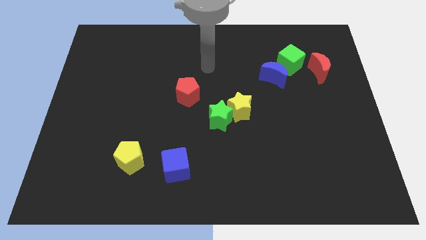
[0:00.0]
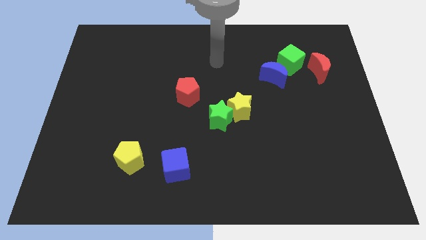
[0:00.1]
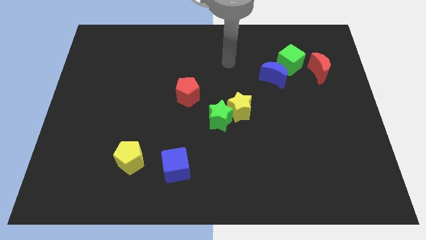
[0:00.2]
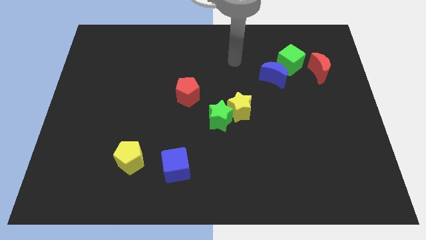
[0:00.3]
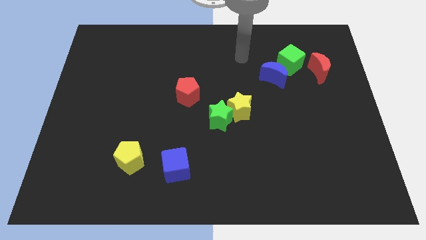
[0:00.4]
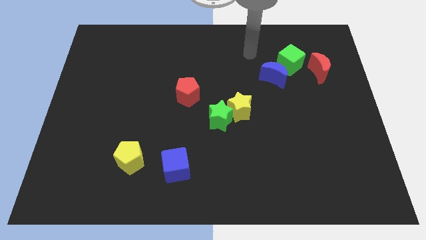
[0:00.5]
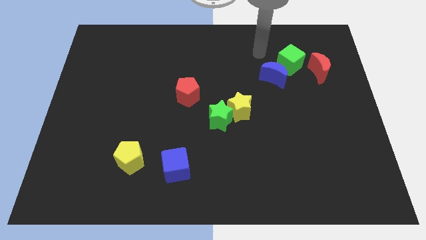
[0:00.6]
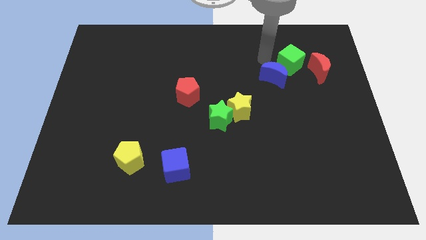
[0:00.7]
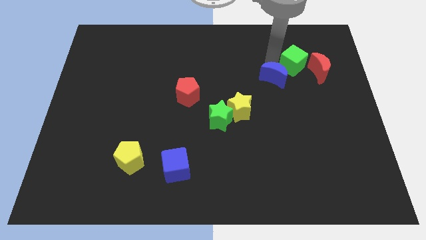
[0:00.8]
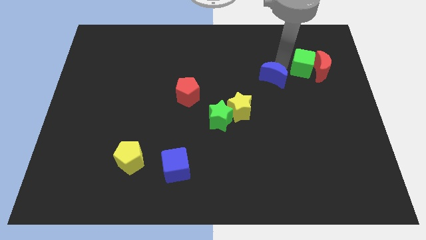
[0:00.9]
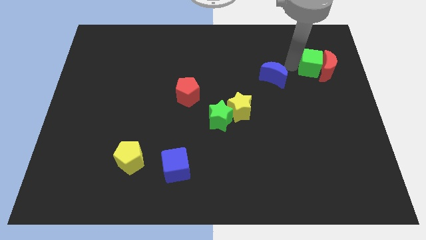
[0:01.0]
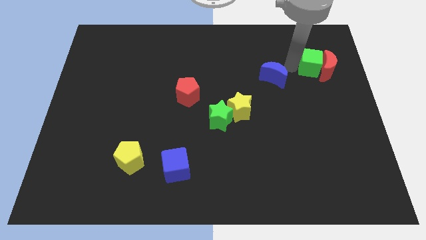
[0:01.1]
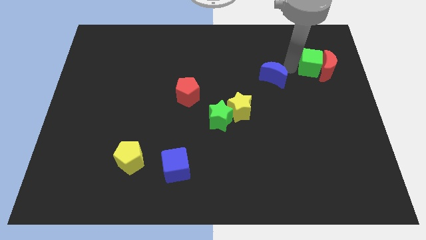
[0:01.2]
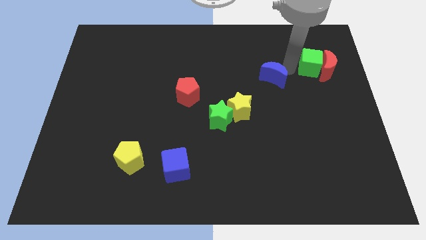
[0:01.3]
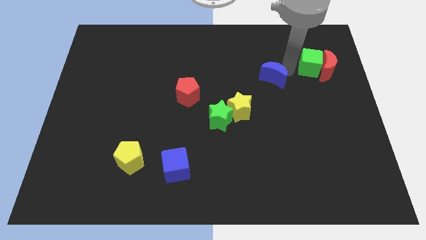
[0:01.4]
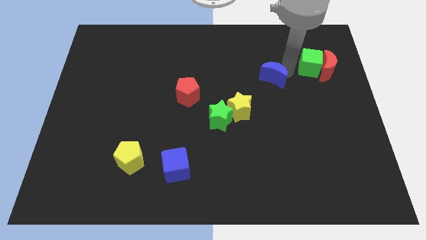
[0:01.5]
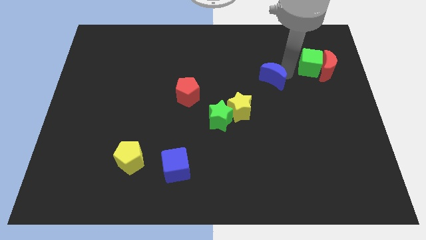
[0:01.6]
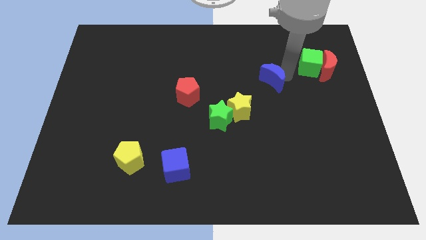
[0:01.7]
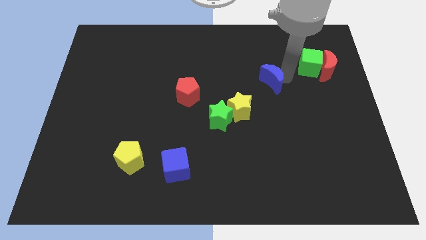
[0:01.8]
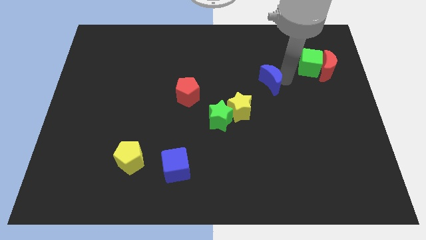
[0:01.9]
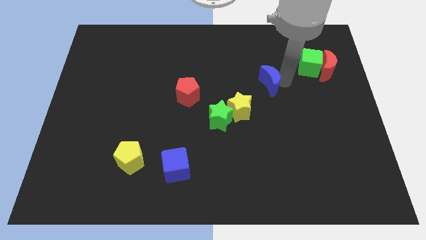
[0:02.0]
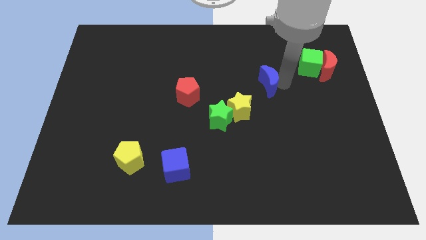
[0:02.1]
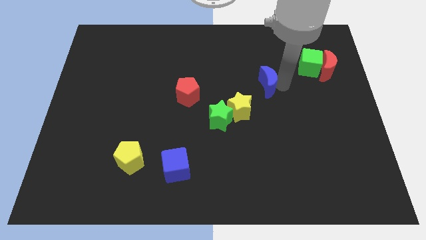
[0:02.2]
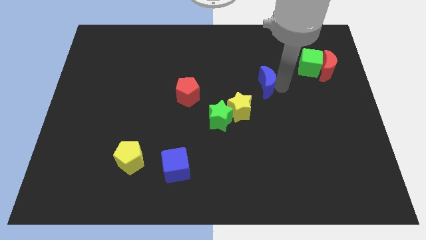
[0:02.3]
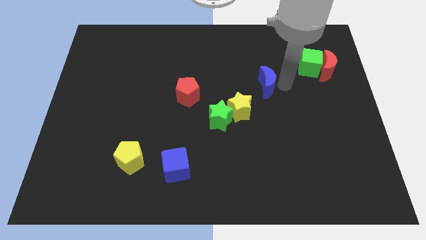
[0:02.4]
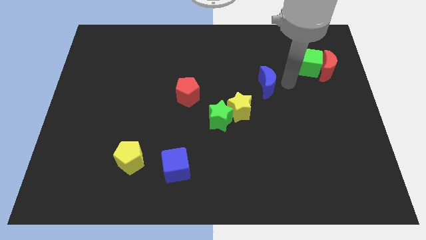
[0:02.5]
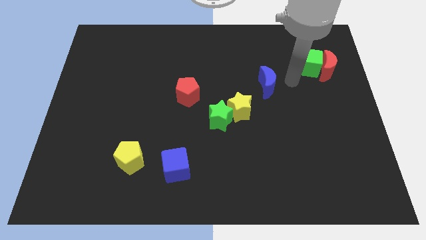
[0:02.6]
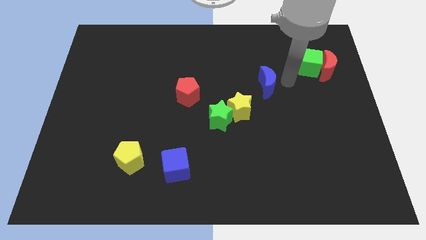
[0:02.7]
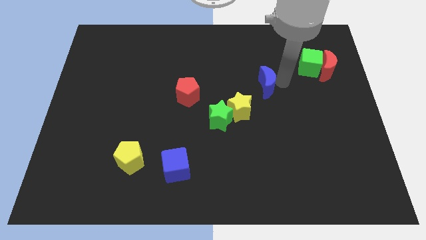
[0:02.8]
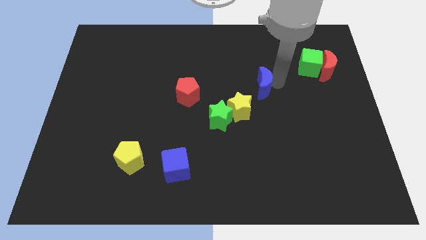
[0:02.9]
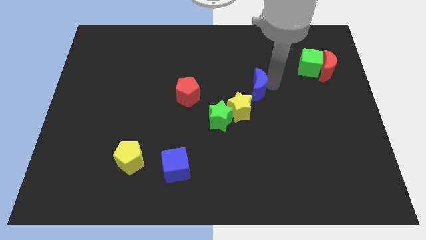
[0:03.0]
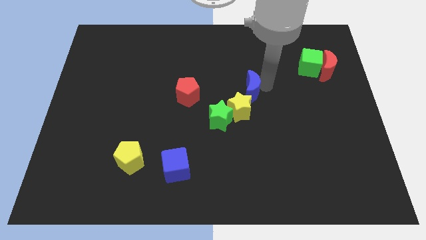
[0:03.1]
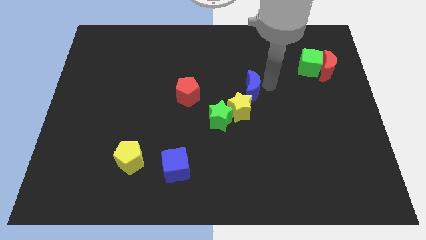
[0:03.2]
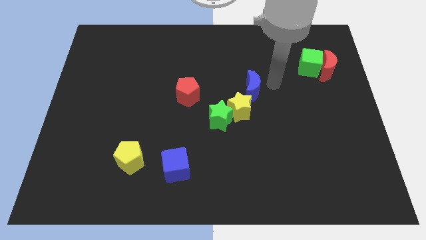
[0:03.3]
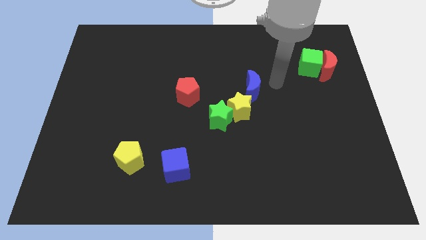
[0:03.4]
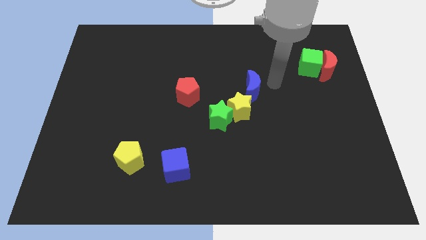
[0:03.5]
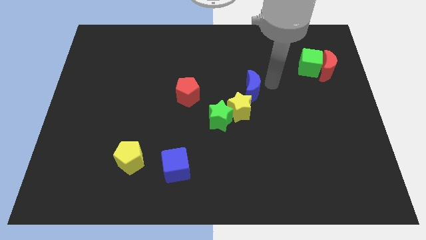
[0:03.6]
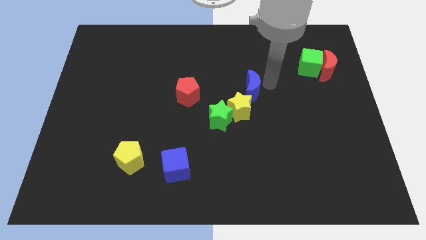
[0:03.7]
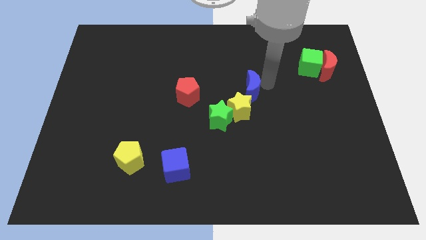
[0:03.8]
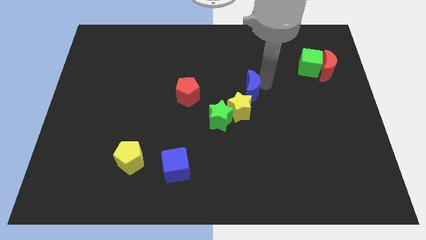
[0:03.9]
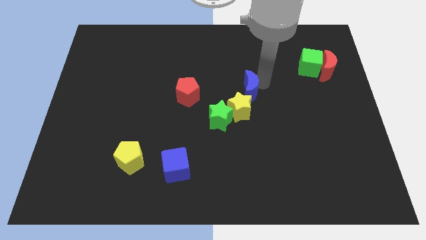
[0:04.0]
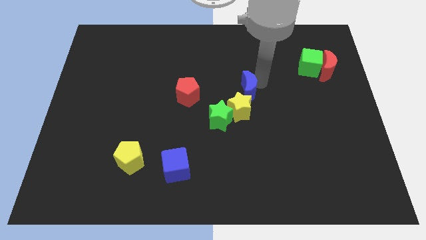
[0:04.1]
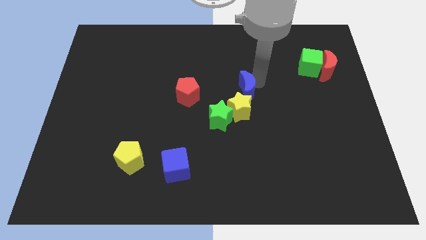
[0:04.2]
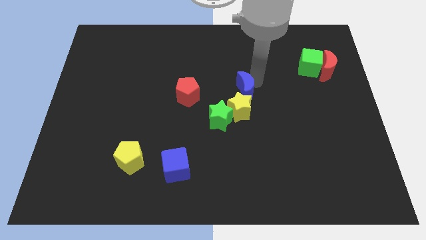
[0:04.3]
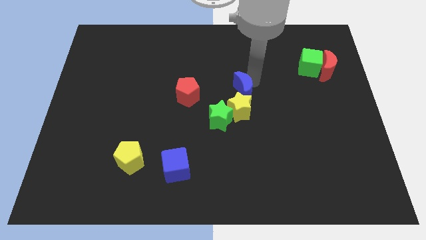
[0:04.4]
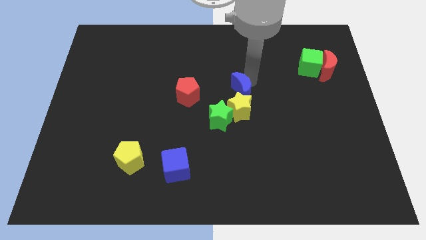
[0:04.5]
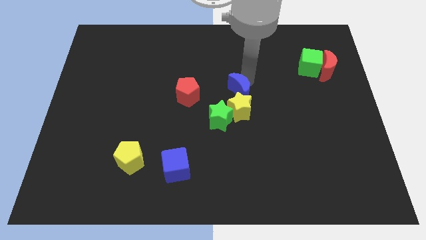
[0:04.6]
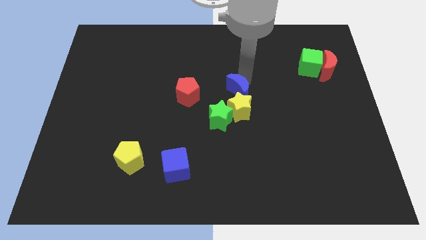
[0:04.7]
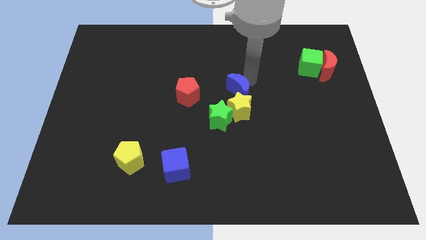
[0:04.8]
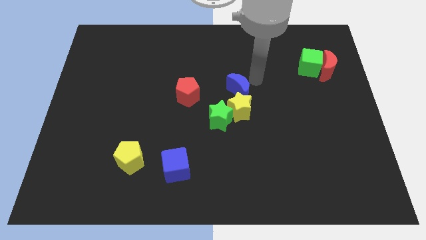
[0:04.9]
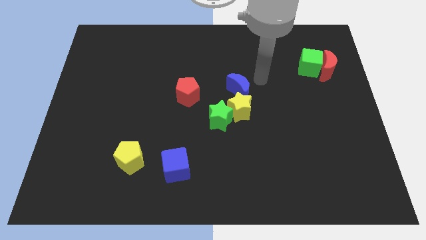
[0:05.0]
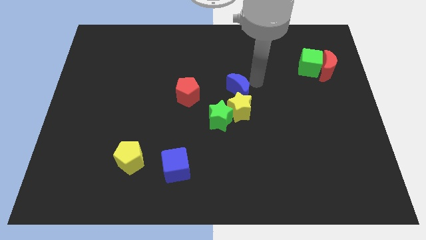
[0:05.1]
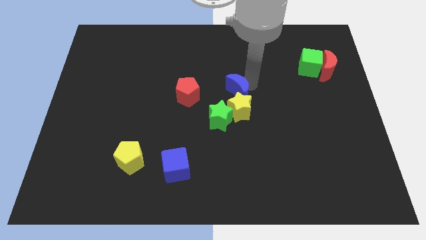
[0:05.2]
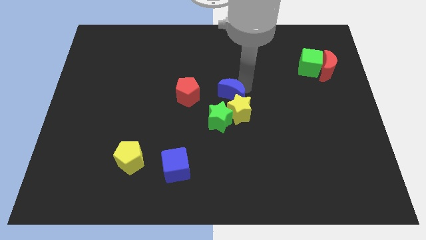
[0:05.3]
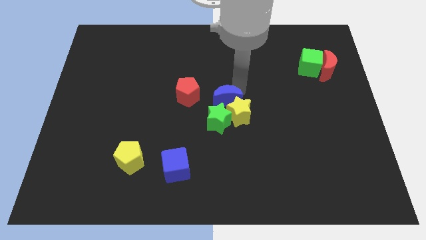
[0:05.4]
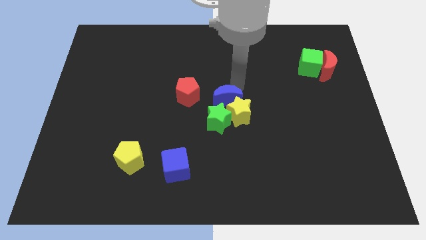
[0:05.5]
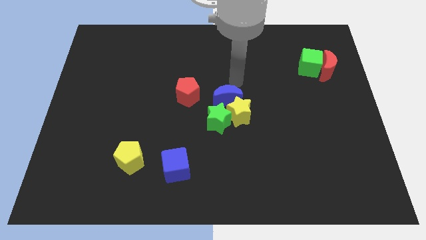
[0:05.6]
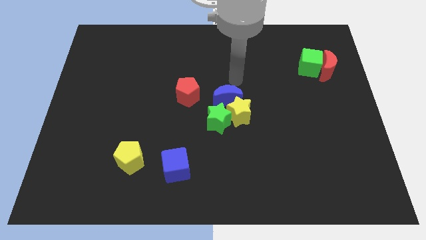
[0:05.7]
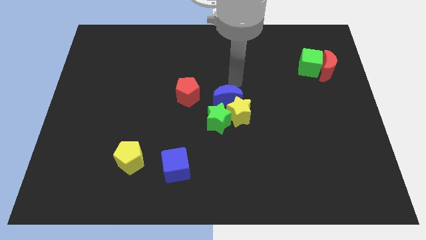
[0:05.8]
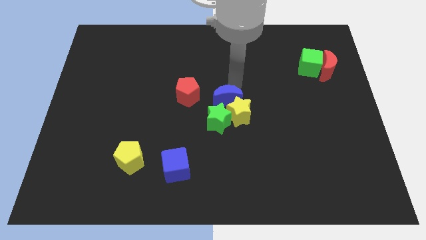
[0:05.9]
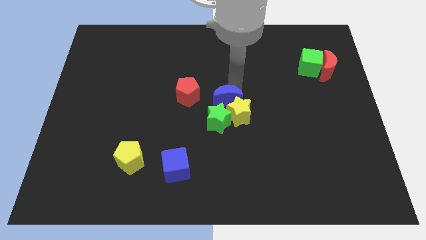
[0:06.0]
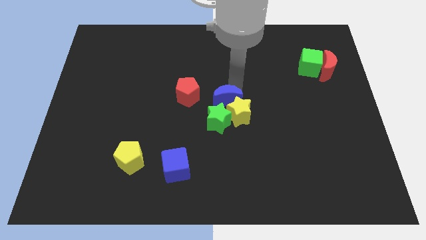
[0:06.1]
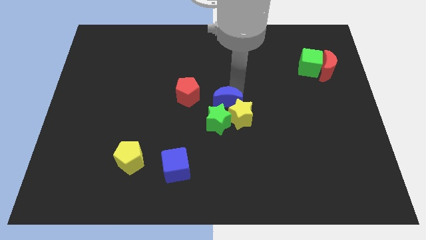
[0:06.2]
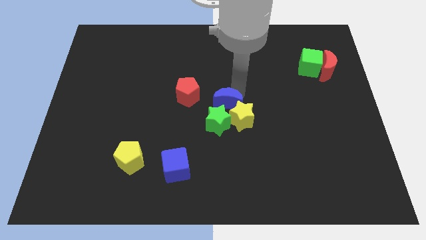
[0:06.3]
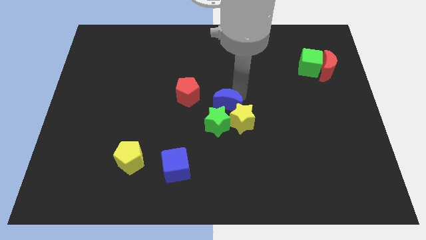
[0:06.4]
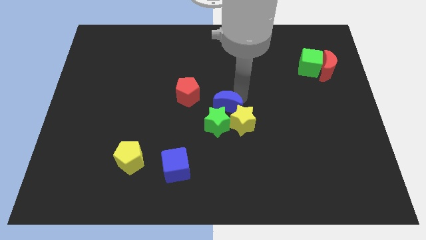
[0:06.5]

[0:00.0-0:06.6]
slide the blue moon close to the green star

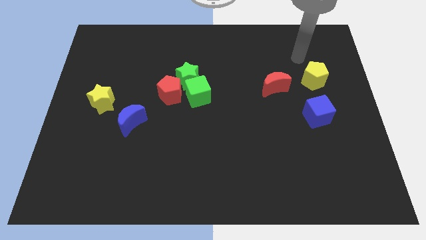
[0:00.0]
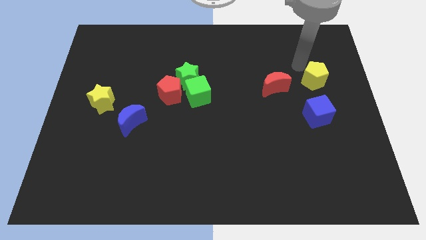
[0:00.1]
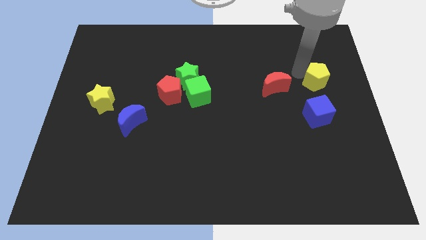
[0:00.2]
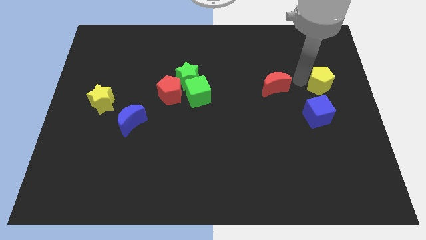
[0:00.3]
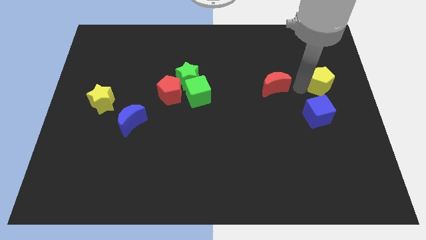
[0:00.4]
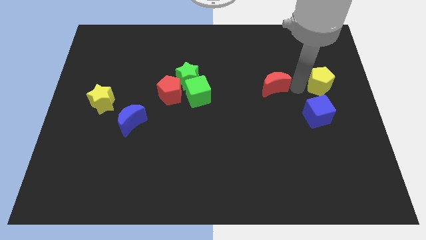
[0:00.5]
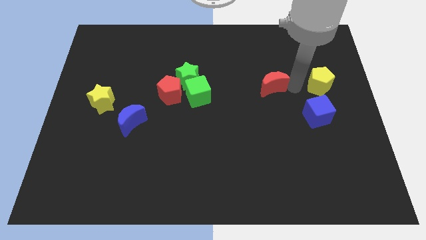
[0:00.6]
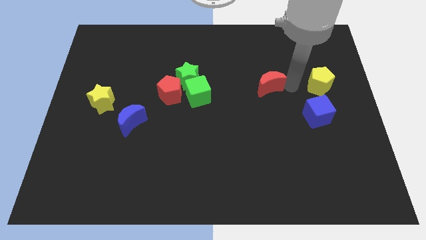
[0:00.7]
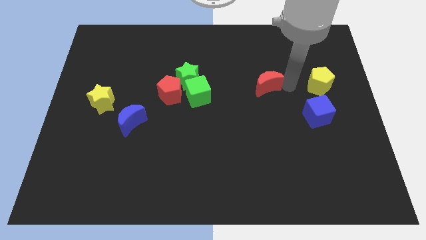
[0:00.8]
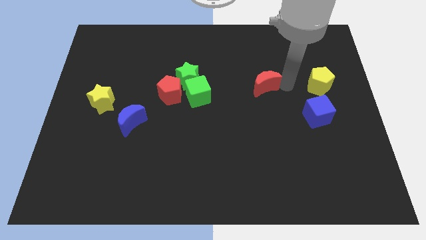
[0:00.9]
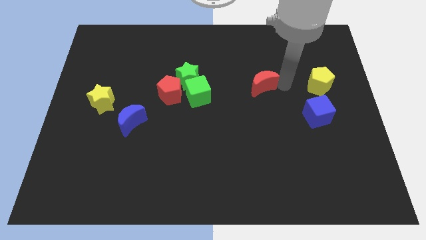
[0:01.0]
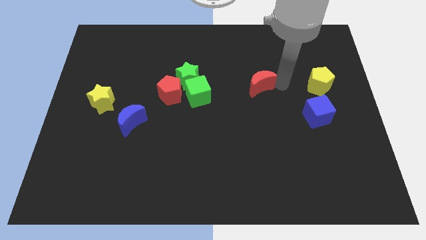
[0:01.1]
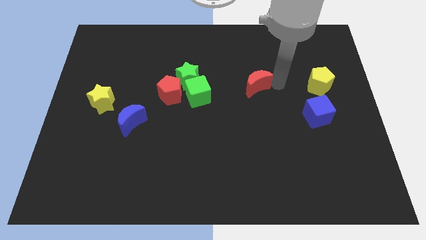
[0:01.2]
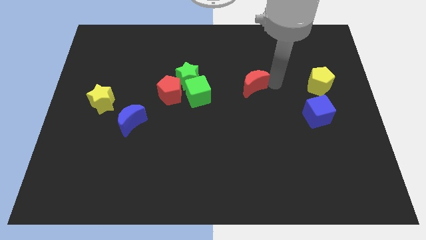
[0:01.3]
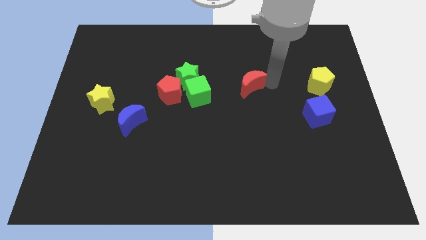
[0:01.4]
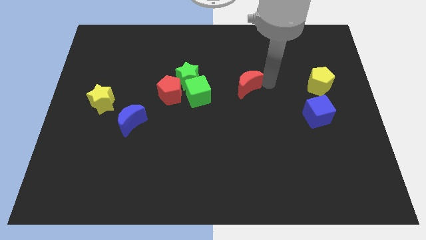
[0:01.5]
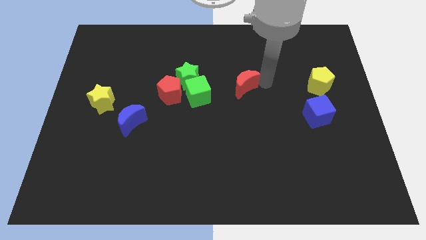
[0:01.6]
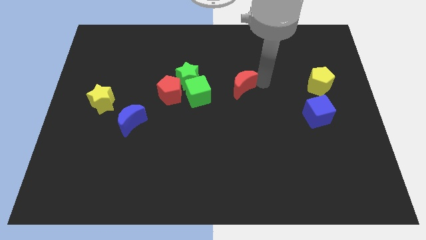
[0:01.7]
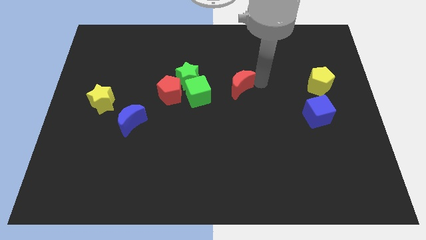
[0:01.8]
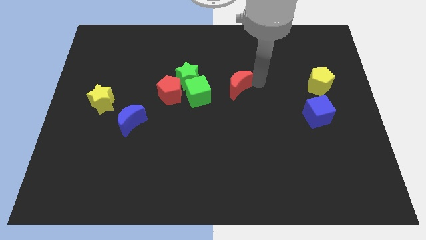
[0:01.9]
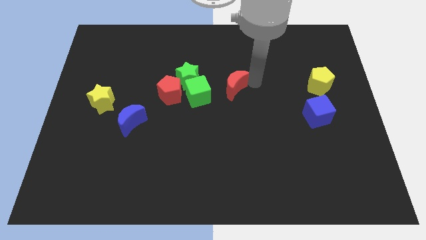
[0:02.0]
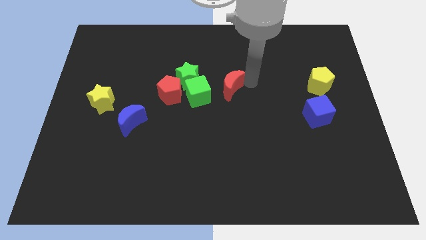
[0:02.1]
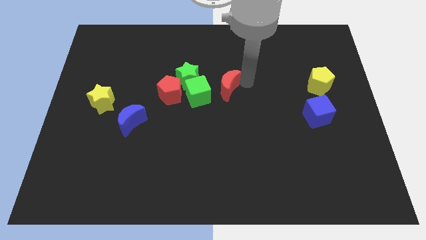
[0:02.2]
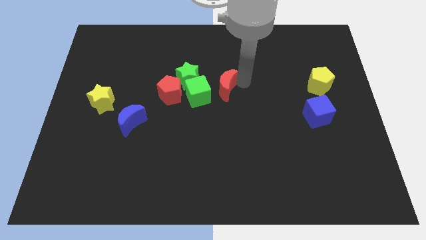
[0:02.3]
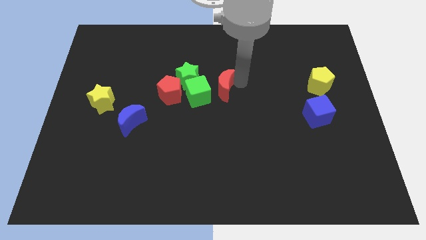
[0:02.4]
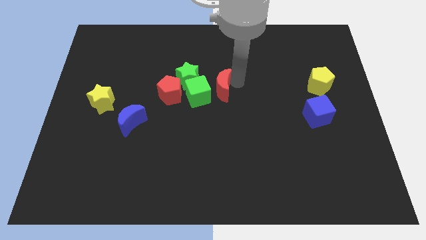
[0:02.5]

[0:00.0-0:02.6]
slide the red moon next to the green cube
